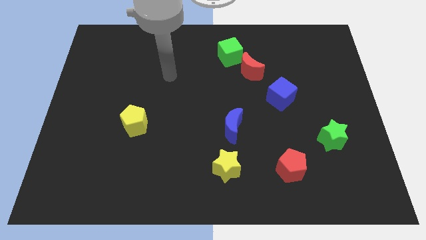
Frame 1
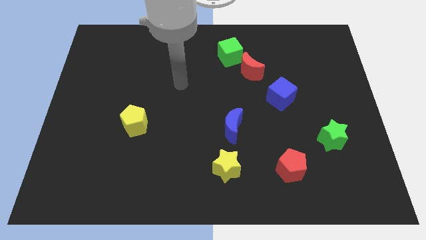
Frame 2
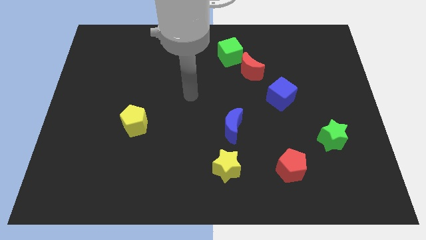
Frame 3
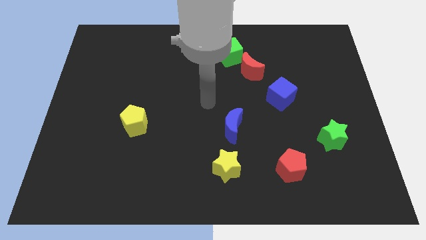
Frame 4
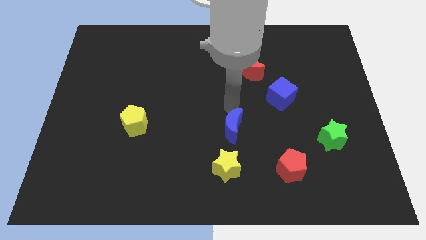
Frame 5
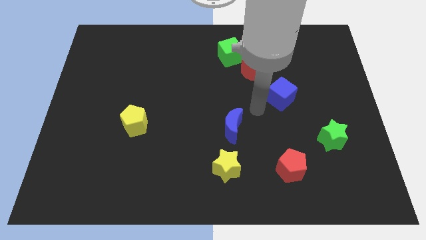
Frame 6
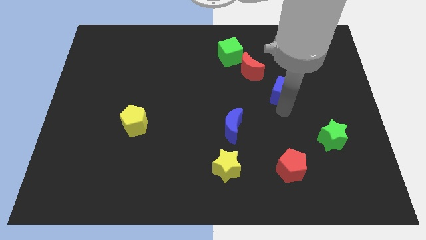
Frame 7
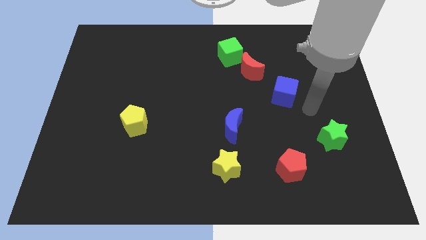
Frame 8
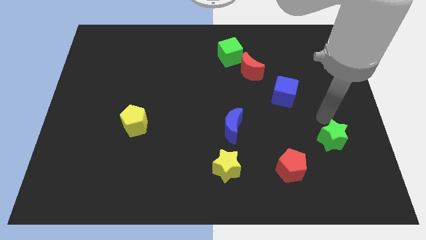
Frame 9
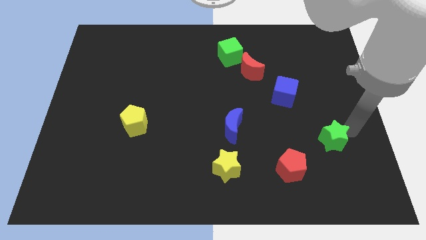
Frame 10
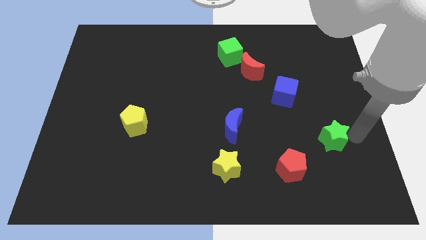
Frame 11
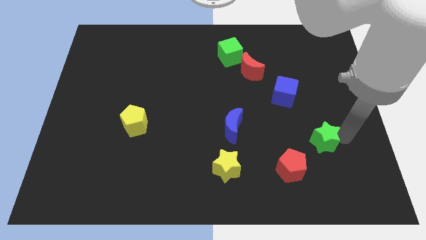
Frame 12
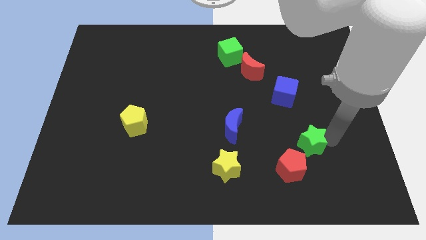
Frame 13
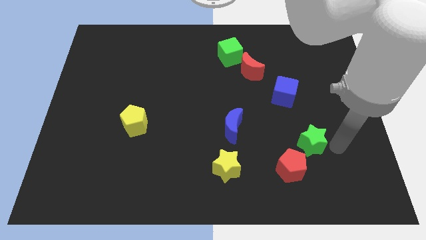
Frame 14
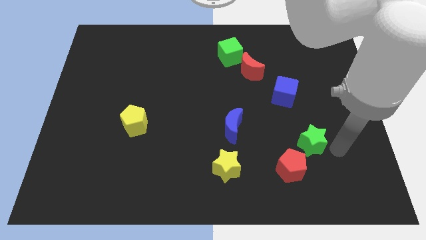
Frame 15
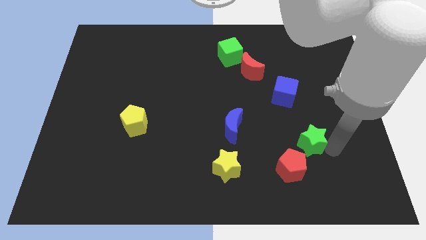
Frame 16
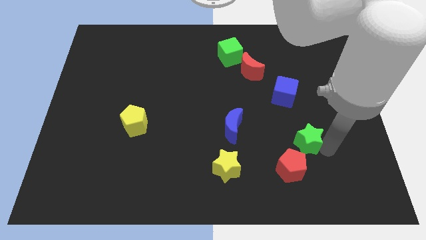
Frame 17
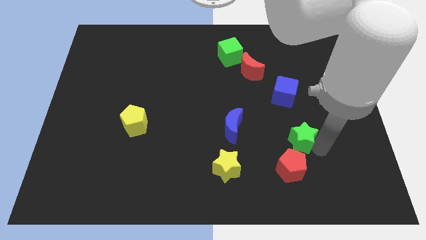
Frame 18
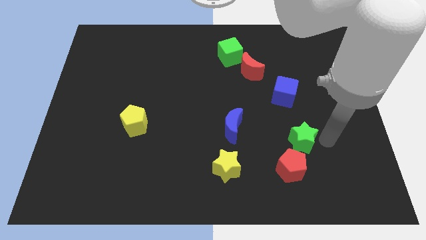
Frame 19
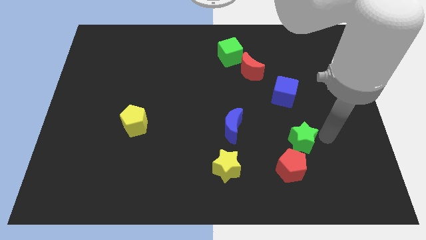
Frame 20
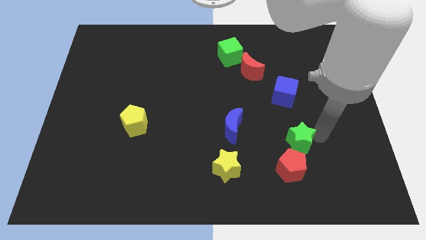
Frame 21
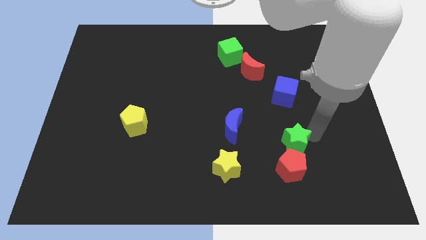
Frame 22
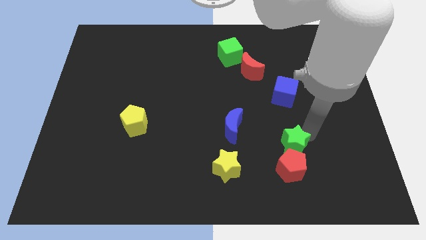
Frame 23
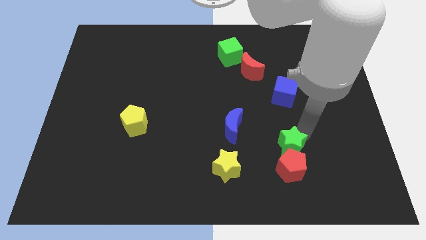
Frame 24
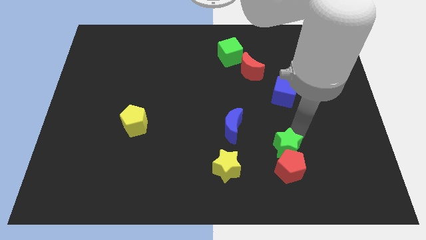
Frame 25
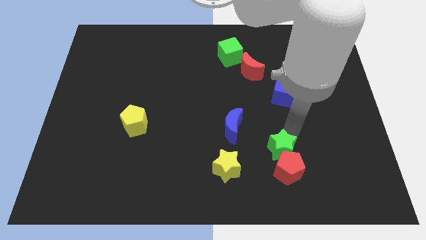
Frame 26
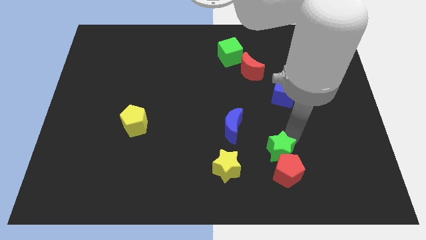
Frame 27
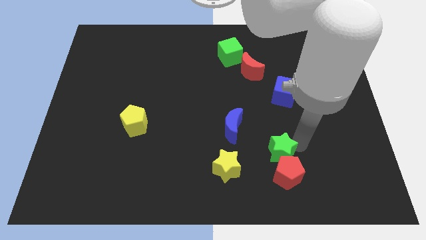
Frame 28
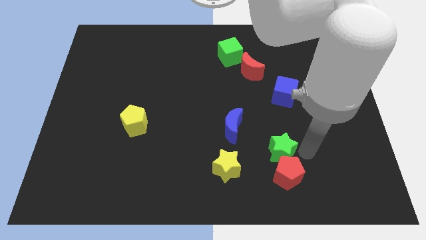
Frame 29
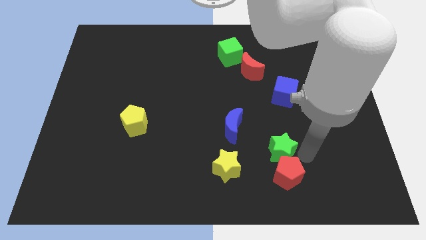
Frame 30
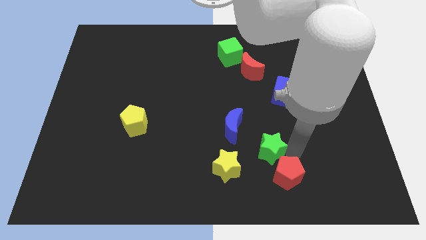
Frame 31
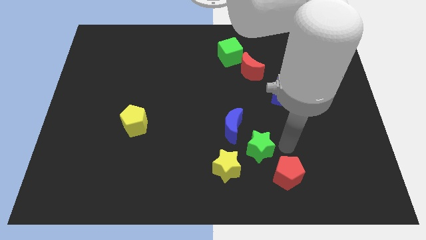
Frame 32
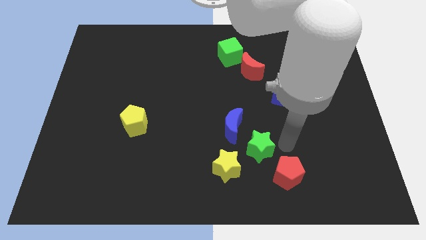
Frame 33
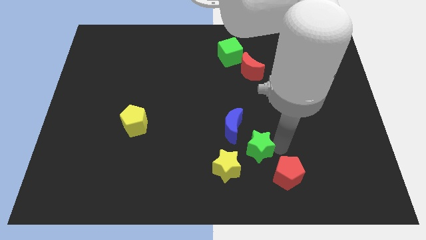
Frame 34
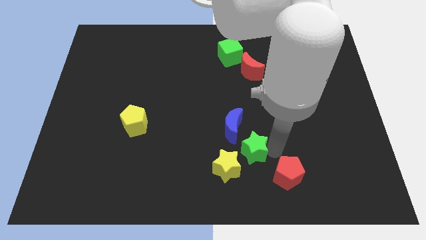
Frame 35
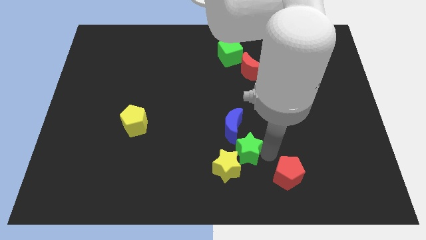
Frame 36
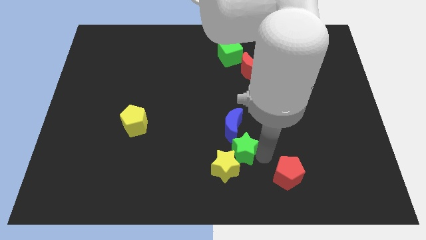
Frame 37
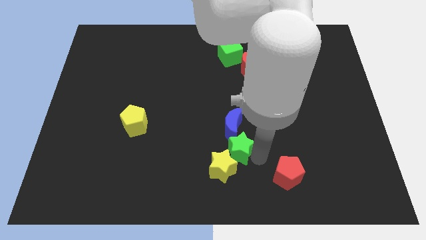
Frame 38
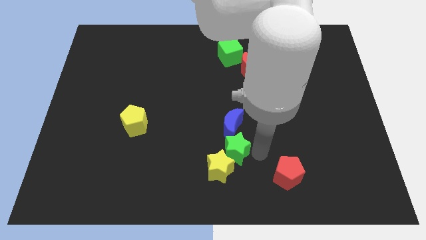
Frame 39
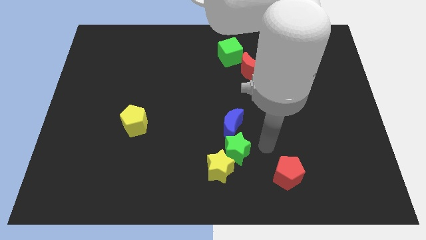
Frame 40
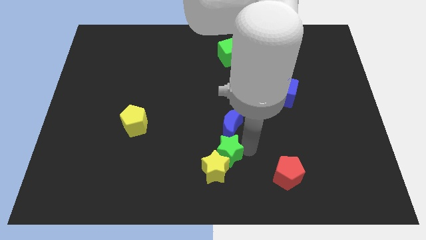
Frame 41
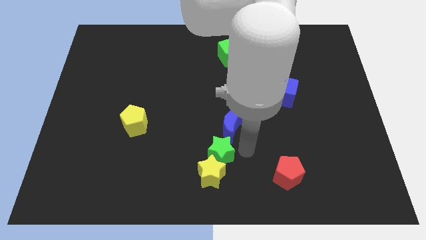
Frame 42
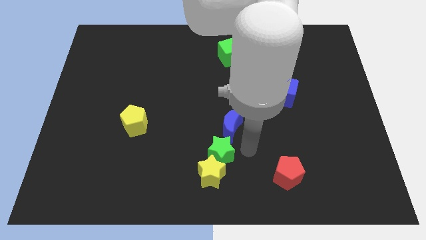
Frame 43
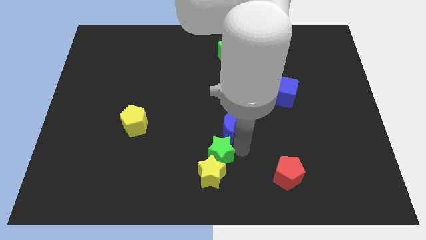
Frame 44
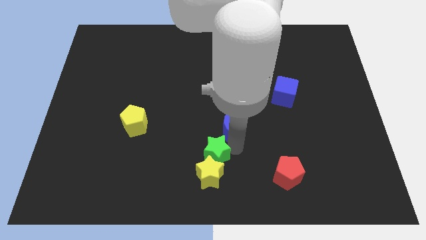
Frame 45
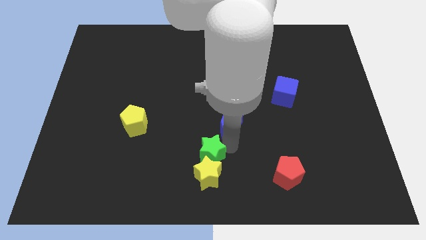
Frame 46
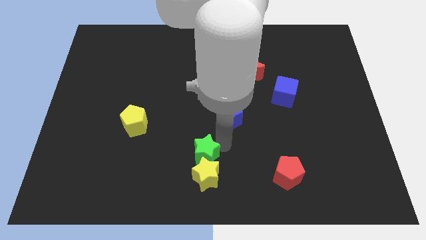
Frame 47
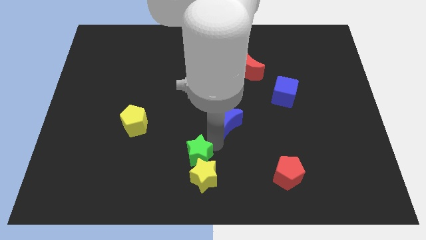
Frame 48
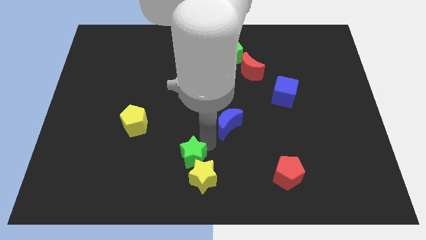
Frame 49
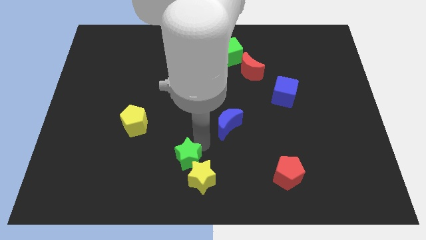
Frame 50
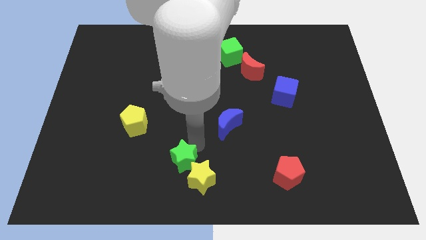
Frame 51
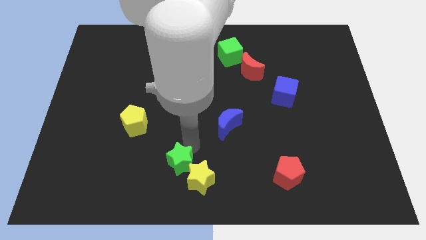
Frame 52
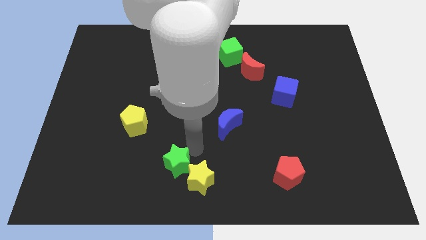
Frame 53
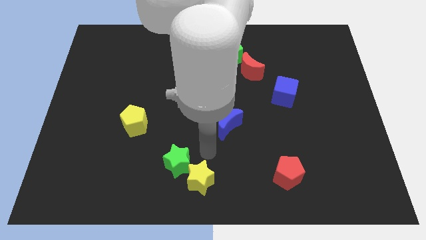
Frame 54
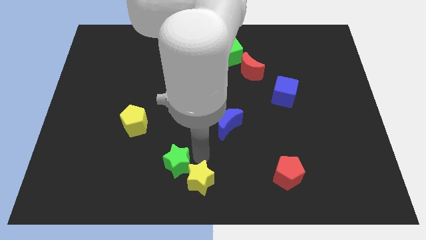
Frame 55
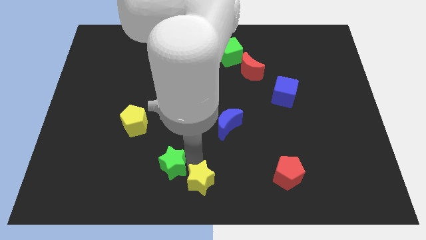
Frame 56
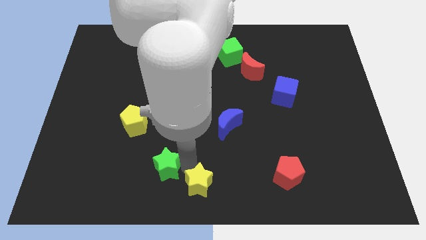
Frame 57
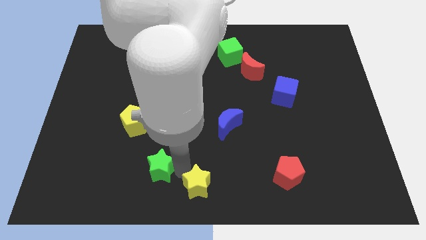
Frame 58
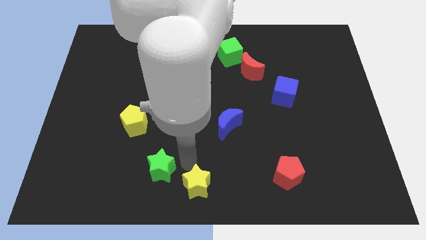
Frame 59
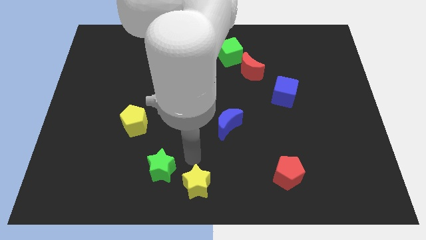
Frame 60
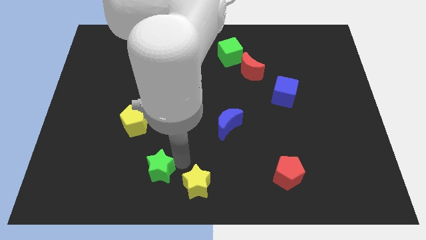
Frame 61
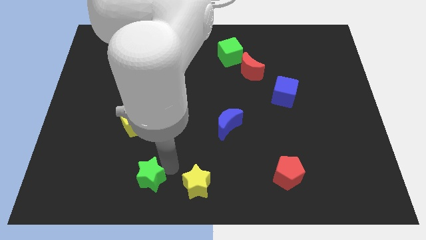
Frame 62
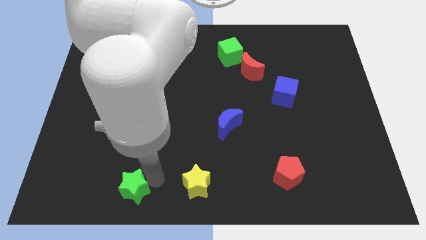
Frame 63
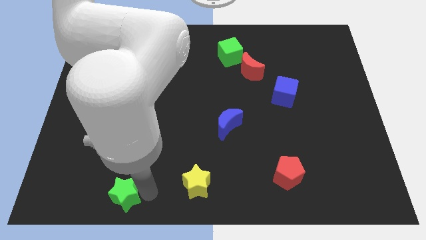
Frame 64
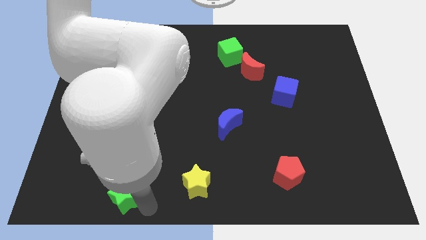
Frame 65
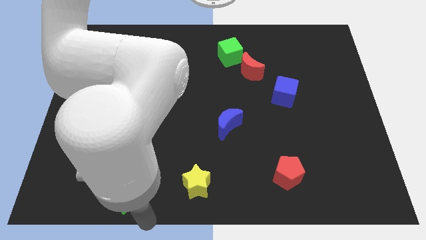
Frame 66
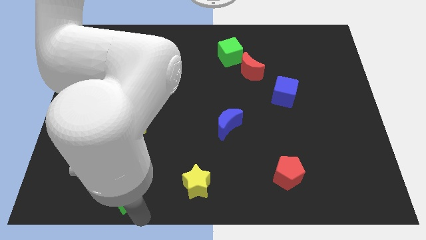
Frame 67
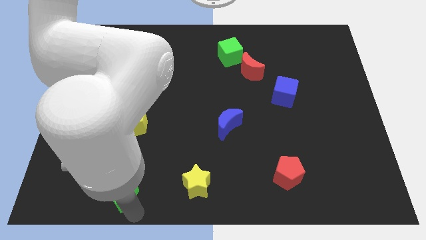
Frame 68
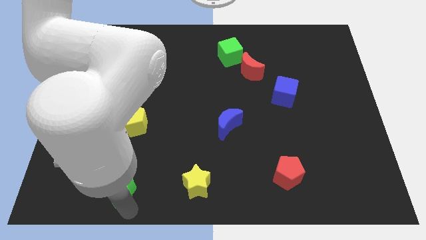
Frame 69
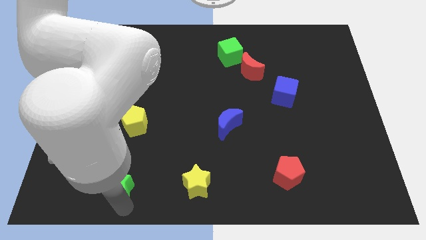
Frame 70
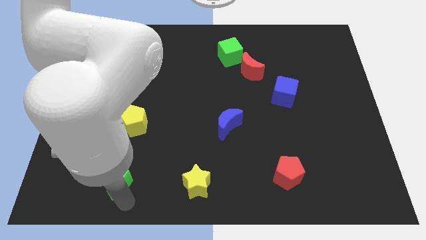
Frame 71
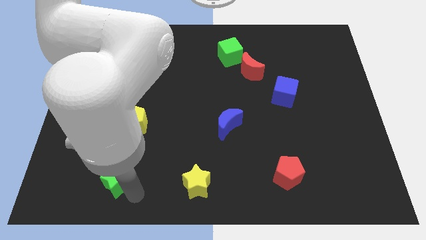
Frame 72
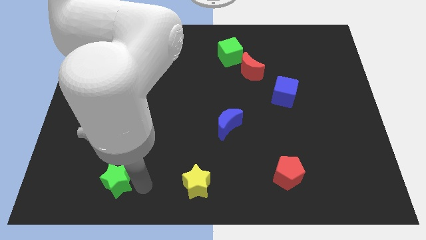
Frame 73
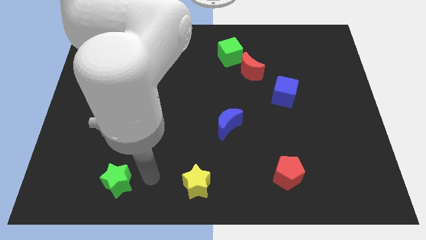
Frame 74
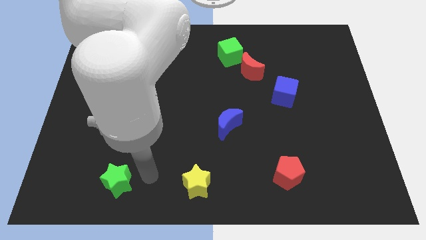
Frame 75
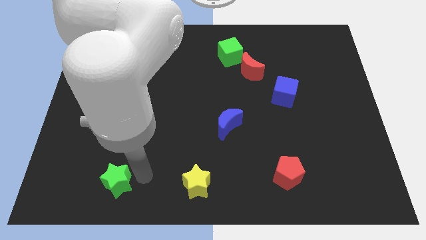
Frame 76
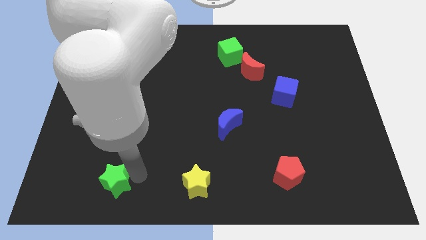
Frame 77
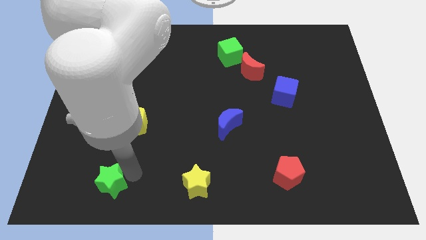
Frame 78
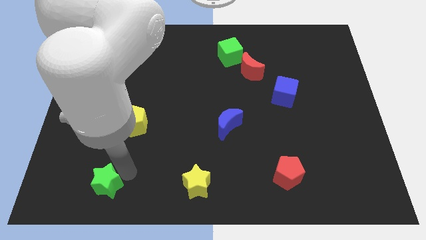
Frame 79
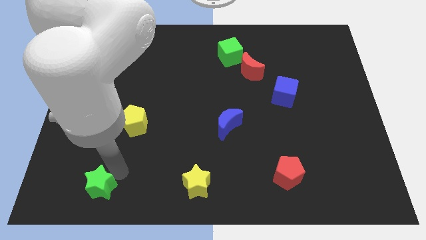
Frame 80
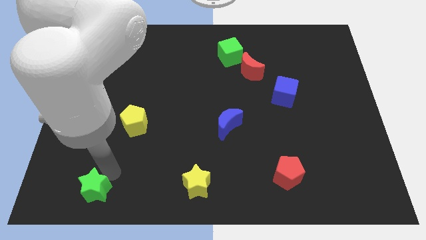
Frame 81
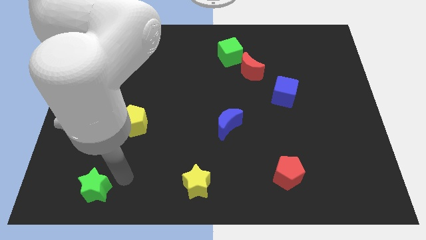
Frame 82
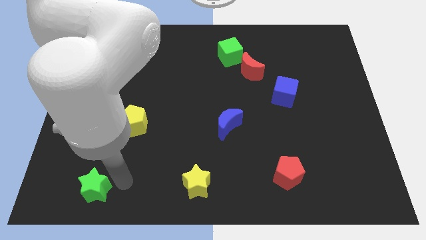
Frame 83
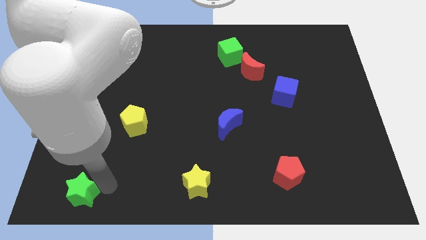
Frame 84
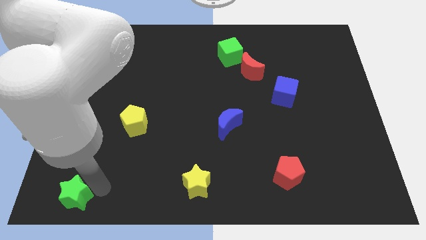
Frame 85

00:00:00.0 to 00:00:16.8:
move the green star to the bottom left corner
